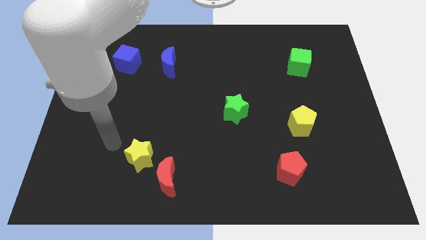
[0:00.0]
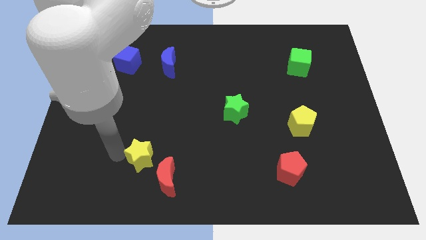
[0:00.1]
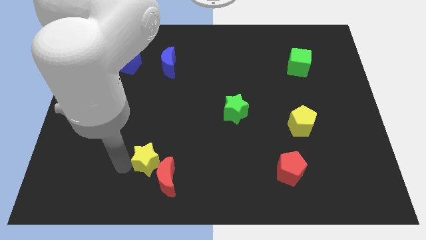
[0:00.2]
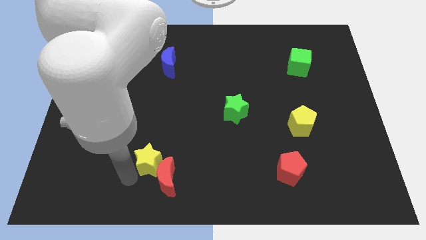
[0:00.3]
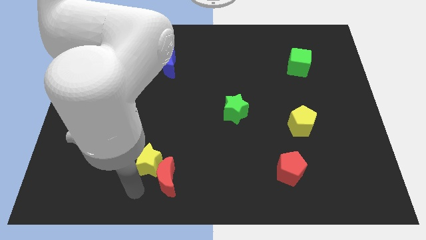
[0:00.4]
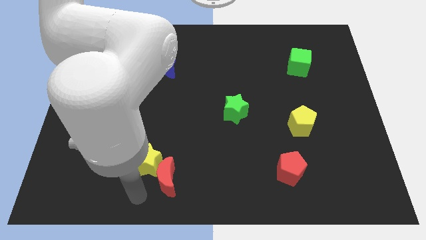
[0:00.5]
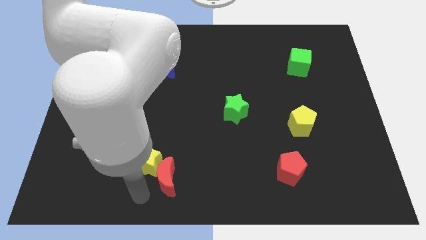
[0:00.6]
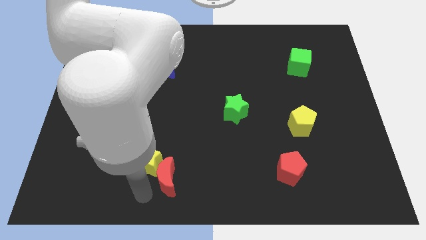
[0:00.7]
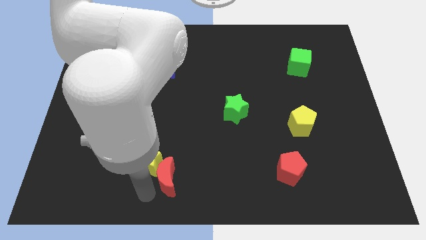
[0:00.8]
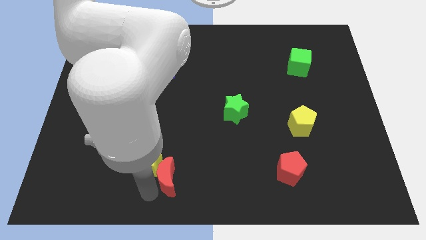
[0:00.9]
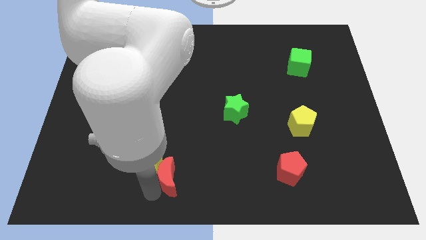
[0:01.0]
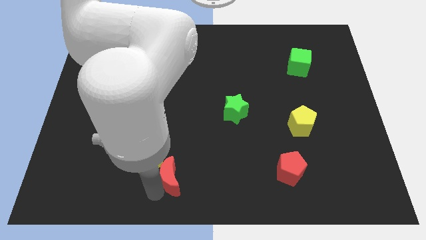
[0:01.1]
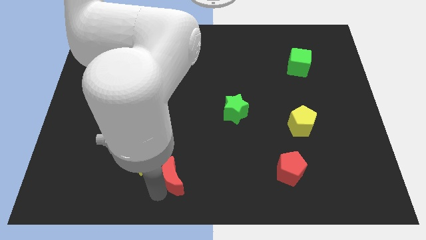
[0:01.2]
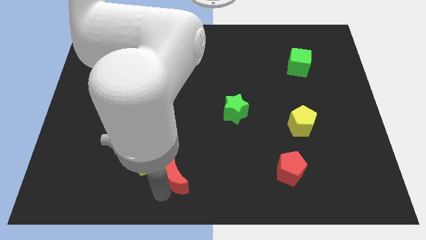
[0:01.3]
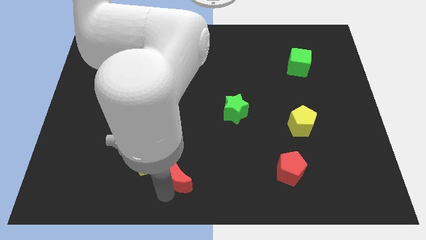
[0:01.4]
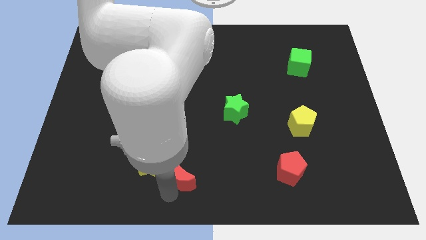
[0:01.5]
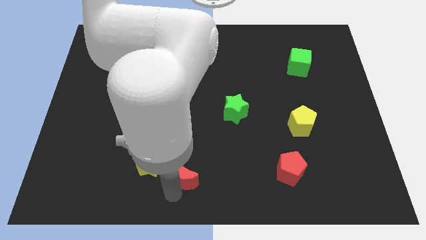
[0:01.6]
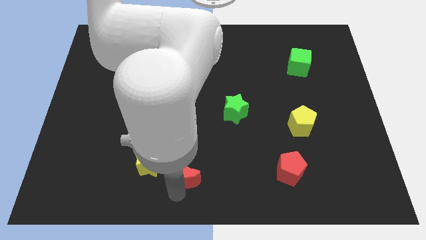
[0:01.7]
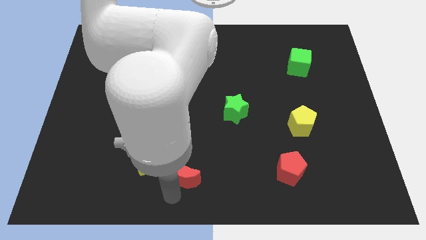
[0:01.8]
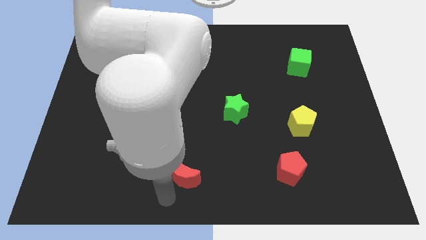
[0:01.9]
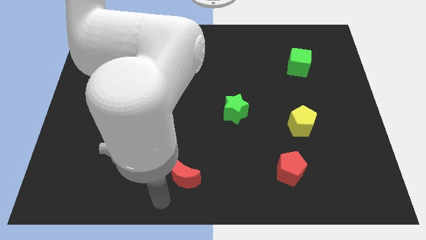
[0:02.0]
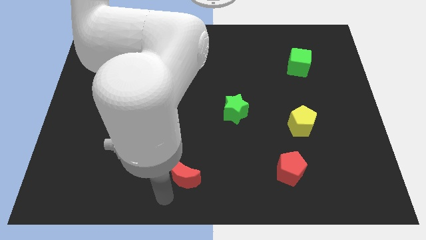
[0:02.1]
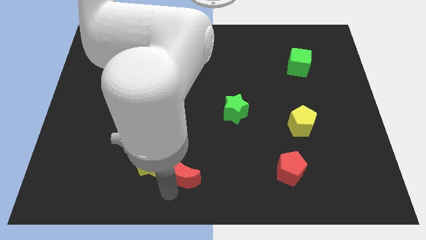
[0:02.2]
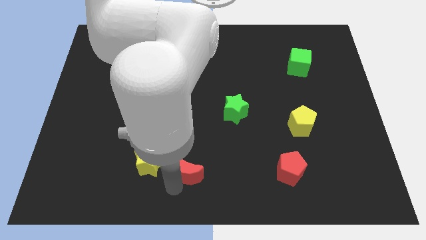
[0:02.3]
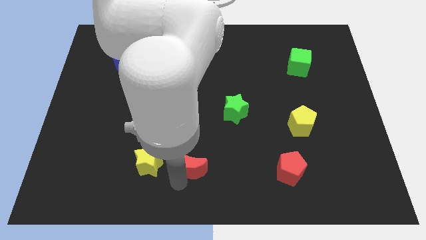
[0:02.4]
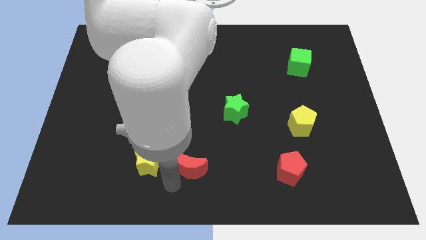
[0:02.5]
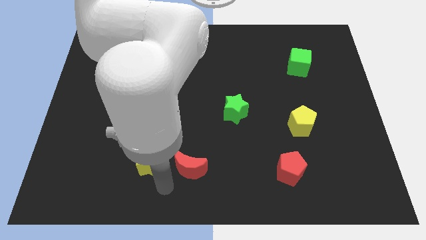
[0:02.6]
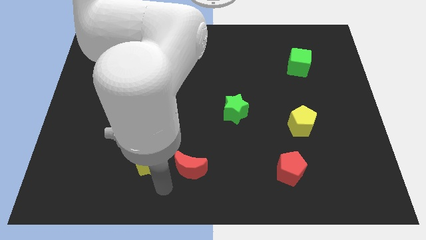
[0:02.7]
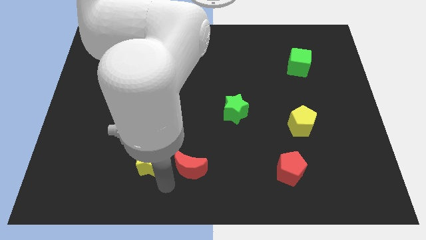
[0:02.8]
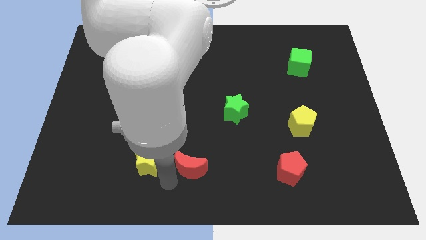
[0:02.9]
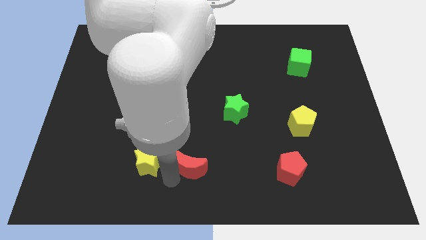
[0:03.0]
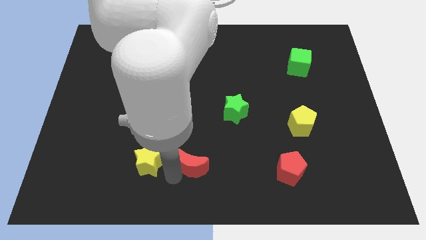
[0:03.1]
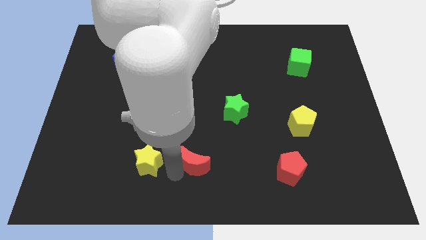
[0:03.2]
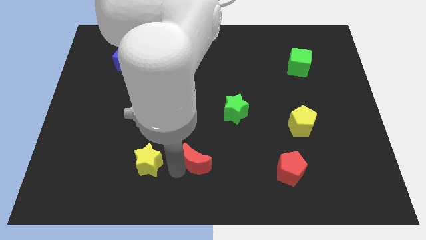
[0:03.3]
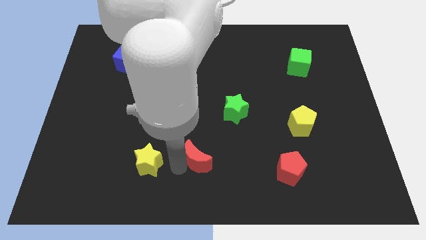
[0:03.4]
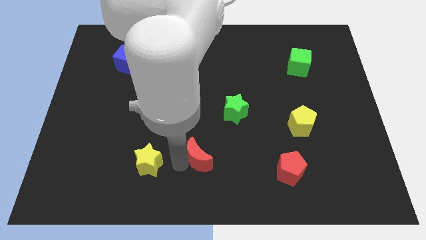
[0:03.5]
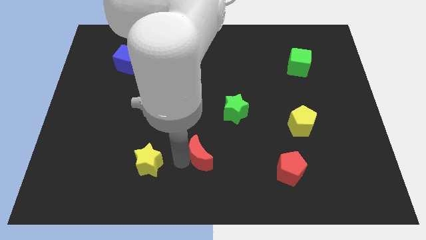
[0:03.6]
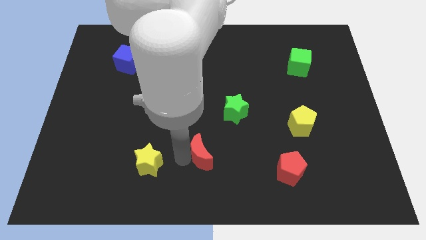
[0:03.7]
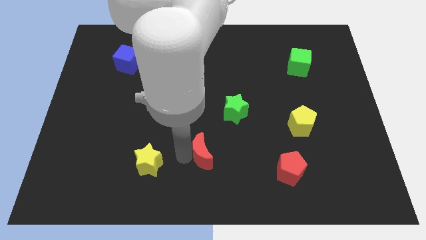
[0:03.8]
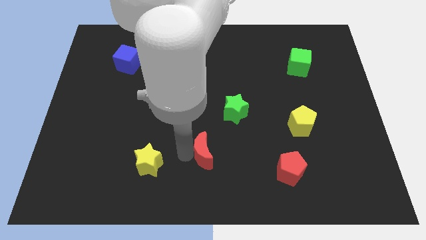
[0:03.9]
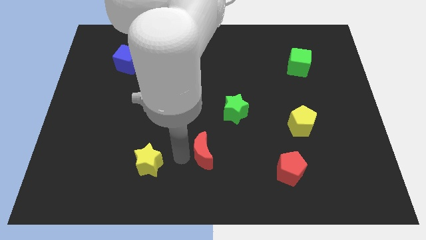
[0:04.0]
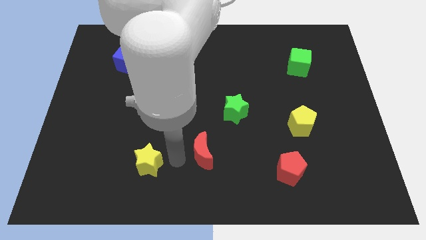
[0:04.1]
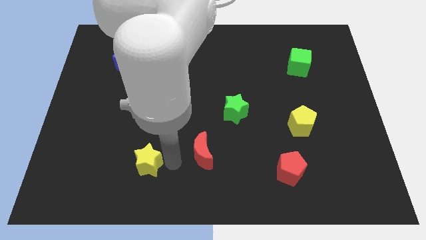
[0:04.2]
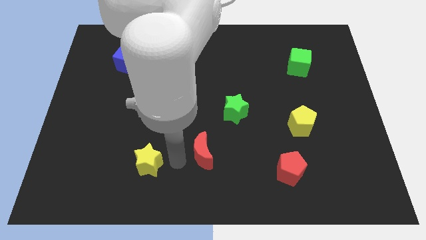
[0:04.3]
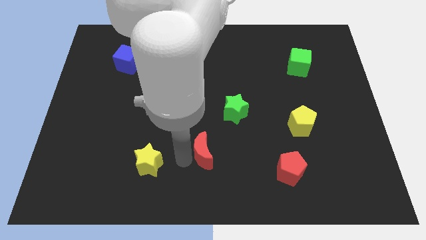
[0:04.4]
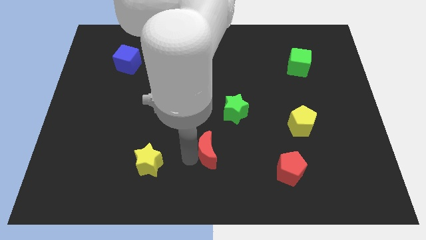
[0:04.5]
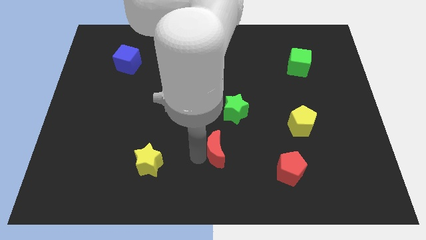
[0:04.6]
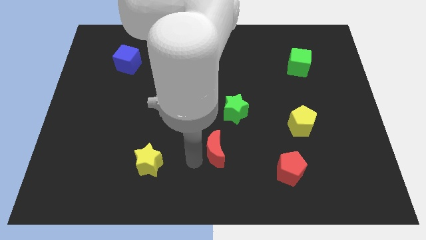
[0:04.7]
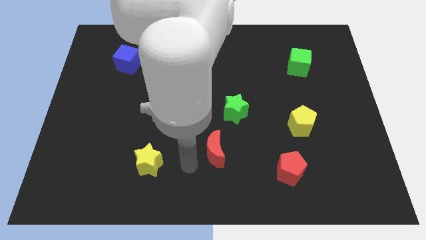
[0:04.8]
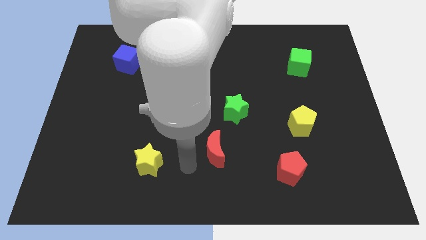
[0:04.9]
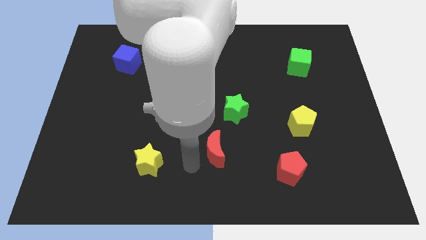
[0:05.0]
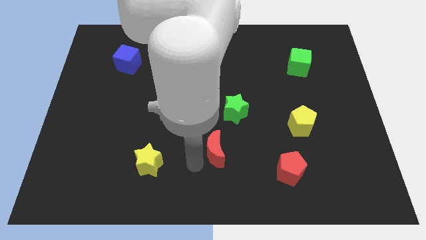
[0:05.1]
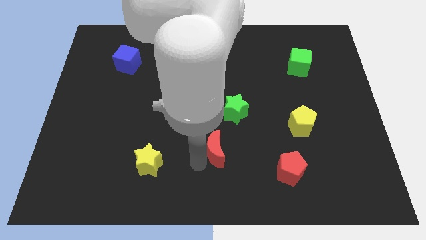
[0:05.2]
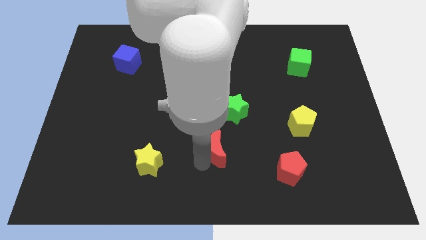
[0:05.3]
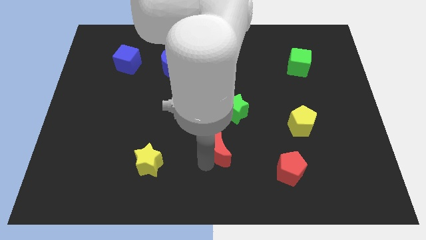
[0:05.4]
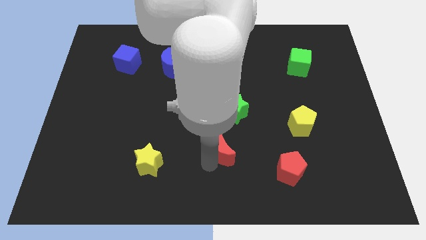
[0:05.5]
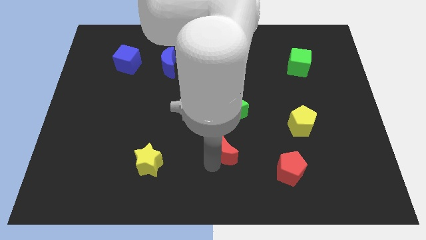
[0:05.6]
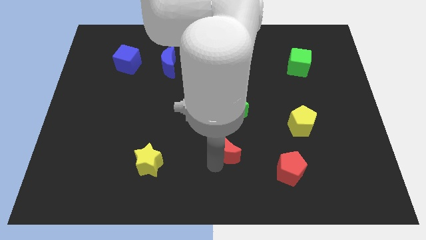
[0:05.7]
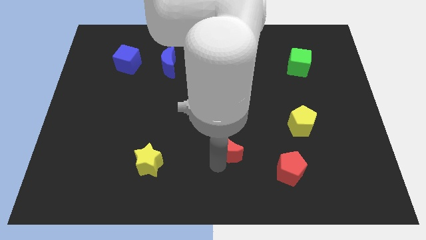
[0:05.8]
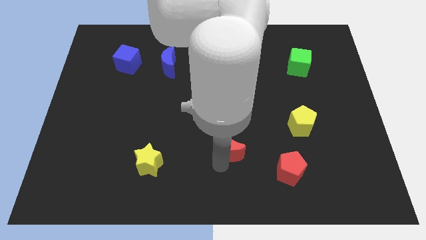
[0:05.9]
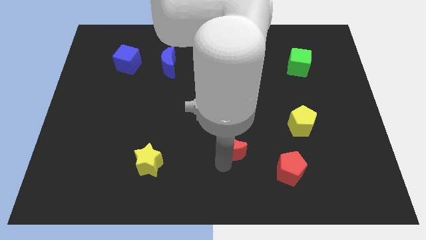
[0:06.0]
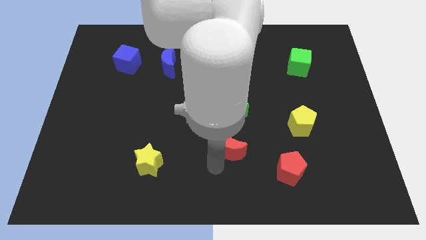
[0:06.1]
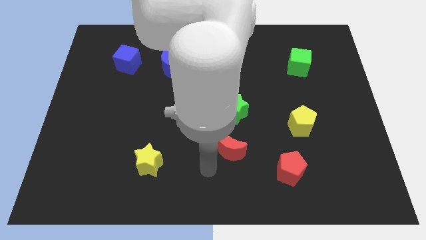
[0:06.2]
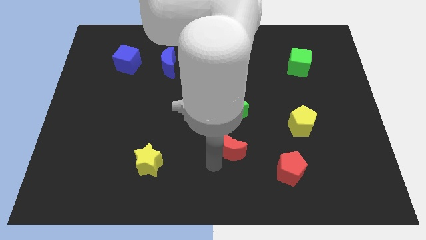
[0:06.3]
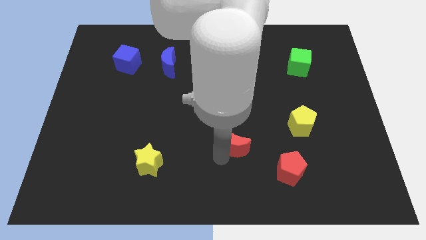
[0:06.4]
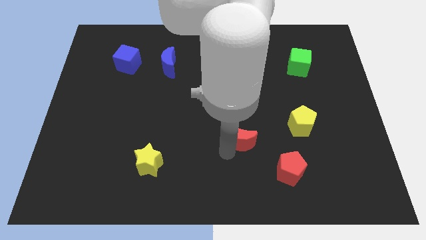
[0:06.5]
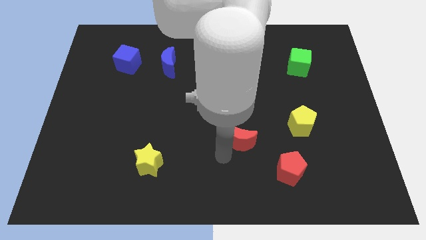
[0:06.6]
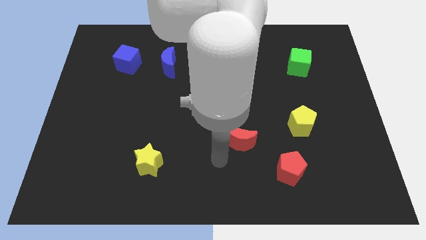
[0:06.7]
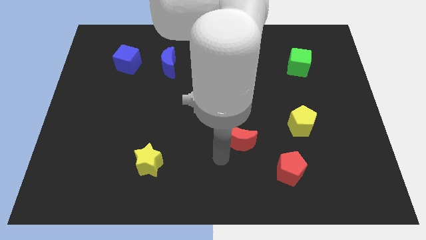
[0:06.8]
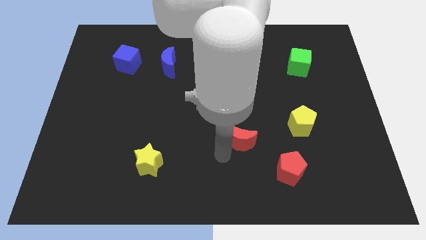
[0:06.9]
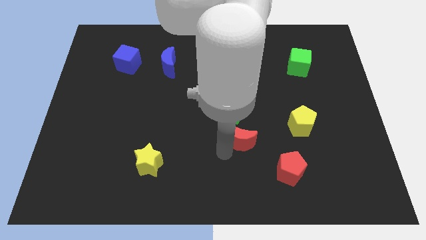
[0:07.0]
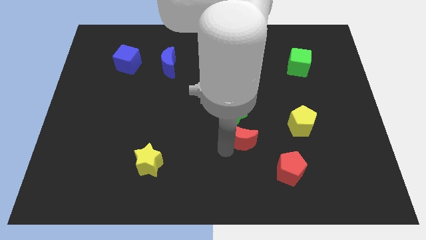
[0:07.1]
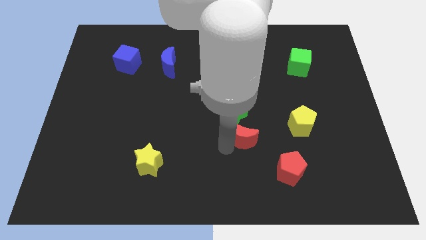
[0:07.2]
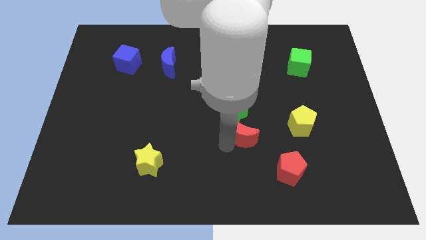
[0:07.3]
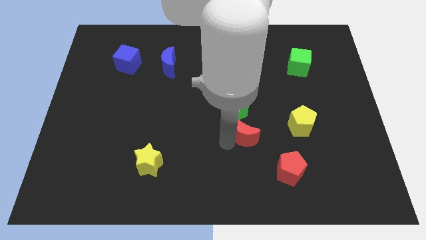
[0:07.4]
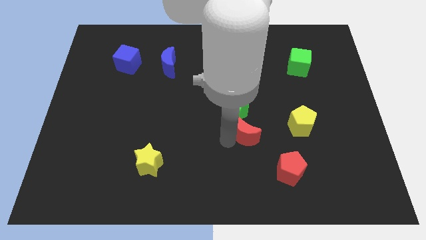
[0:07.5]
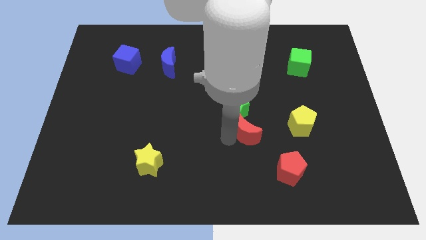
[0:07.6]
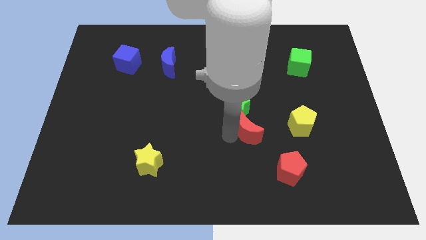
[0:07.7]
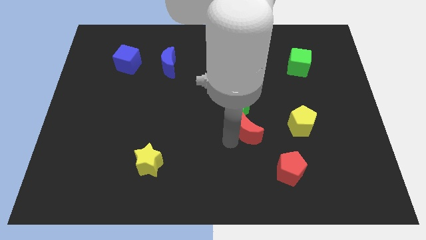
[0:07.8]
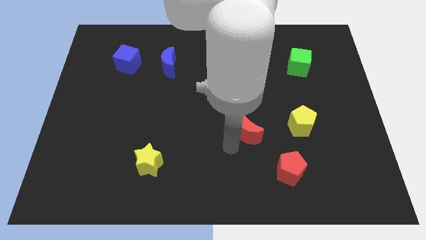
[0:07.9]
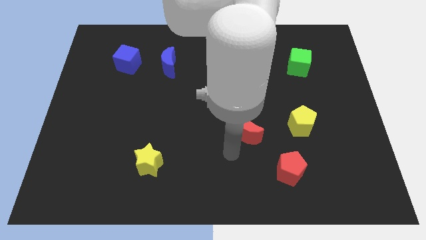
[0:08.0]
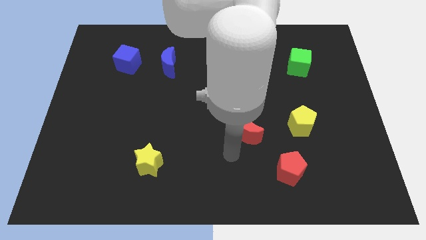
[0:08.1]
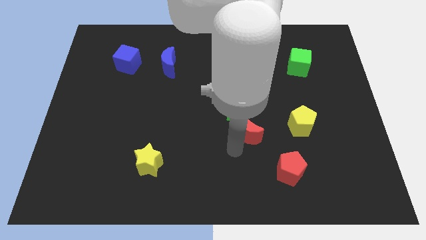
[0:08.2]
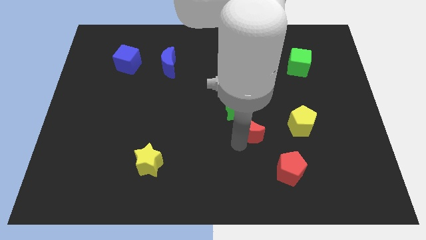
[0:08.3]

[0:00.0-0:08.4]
slide the red moon up and then to the right
